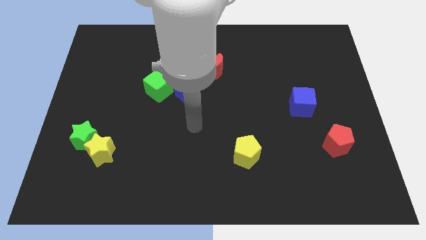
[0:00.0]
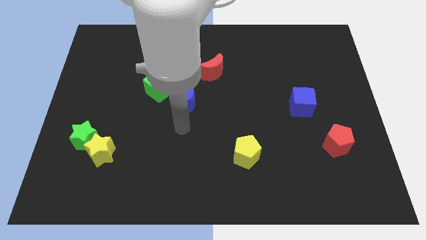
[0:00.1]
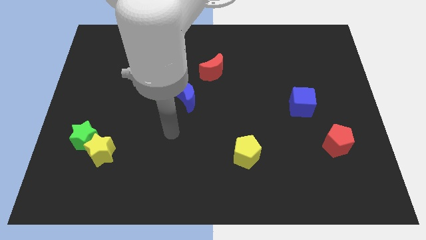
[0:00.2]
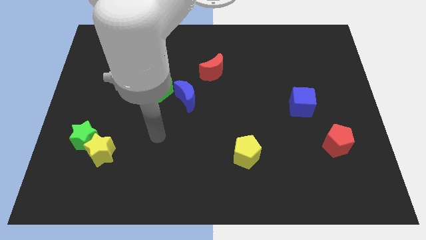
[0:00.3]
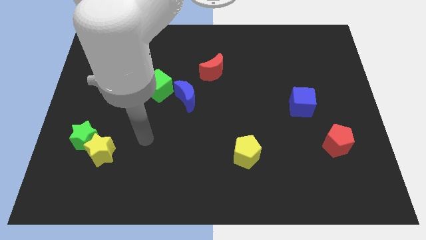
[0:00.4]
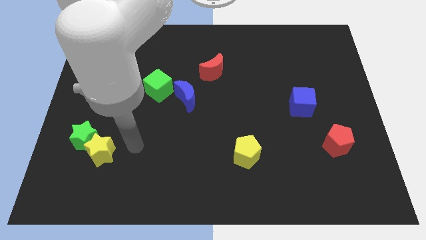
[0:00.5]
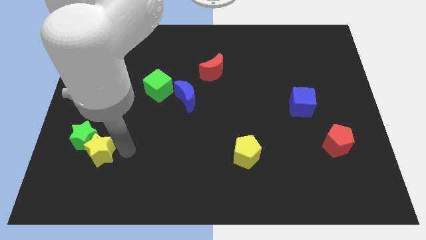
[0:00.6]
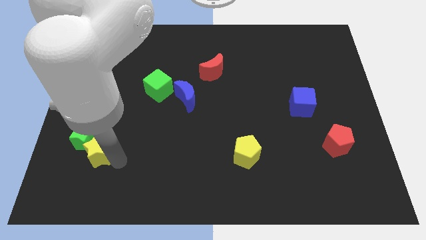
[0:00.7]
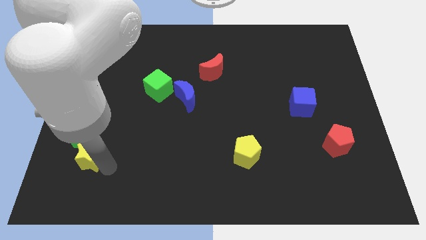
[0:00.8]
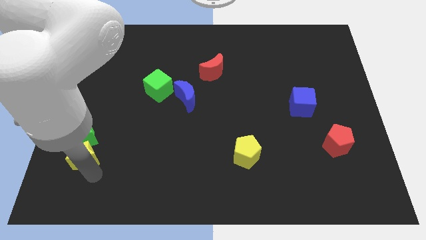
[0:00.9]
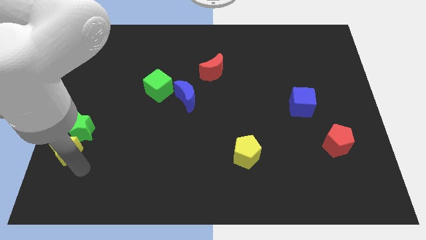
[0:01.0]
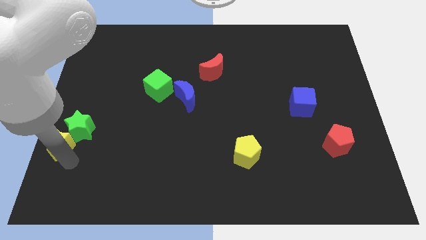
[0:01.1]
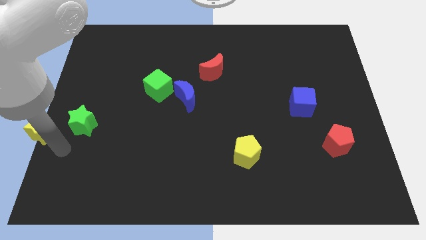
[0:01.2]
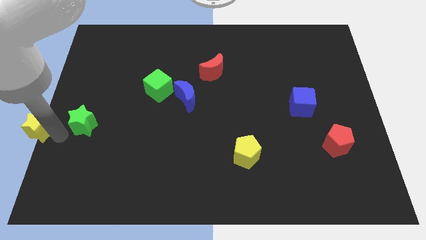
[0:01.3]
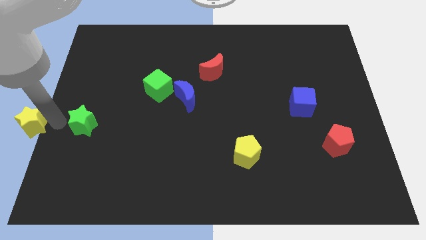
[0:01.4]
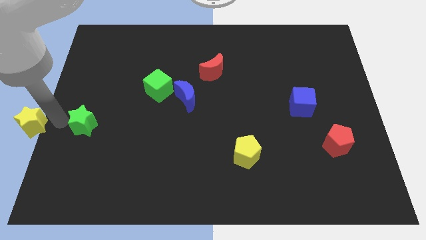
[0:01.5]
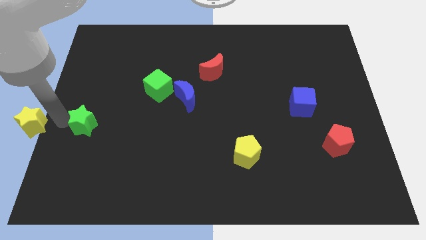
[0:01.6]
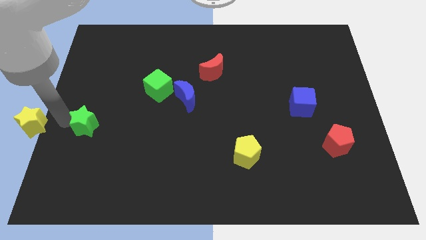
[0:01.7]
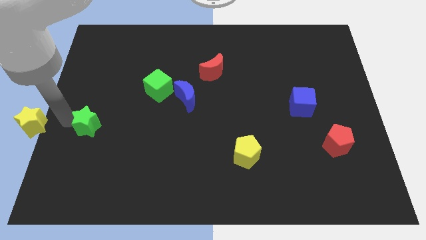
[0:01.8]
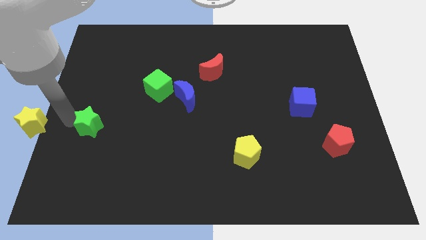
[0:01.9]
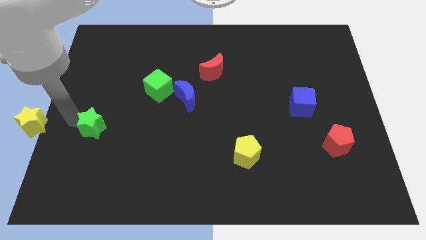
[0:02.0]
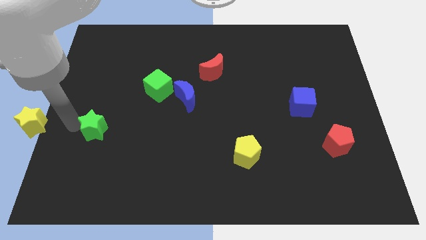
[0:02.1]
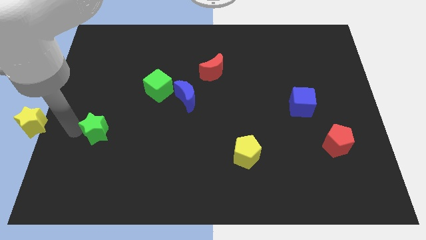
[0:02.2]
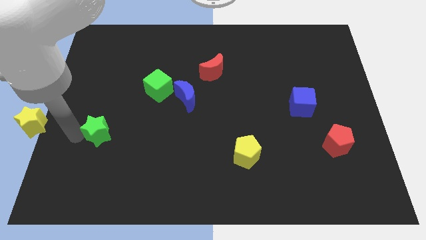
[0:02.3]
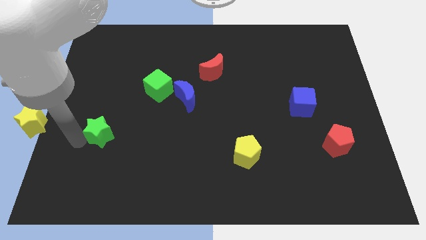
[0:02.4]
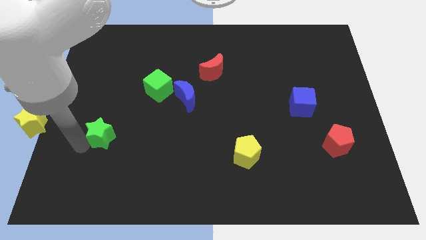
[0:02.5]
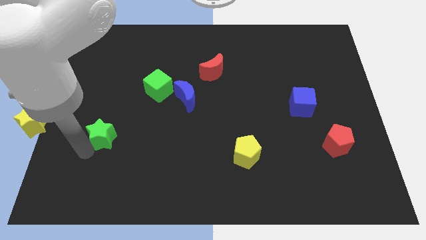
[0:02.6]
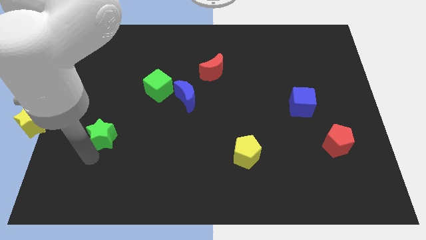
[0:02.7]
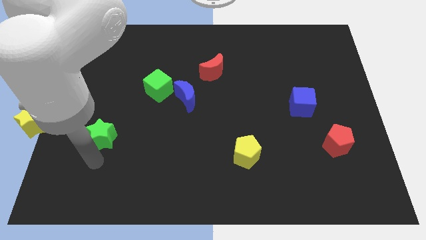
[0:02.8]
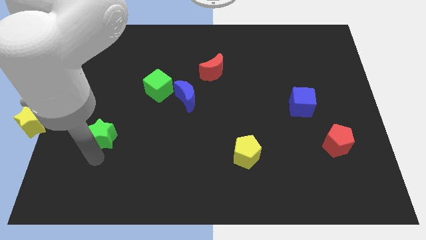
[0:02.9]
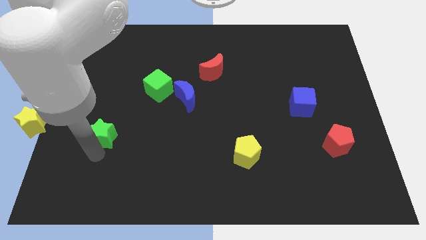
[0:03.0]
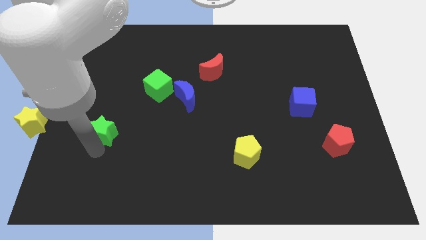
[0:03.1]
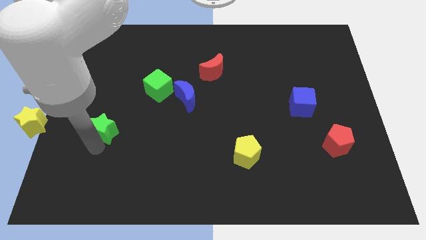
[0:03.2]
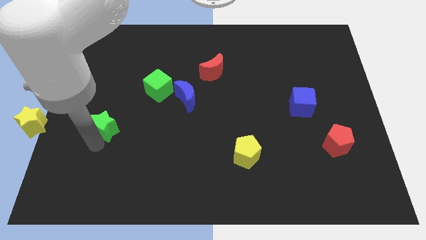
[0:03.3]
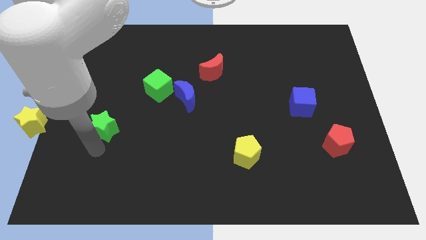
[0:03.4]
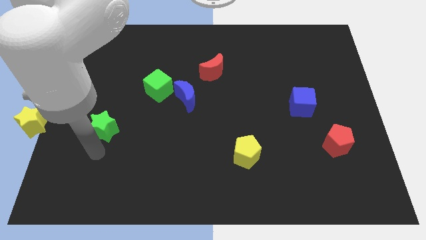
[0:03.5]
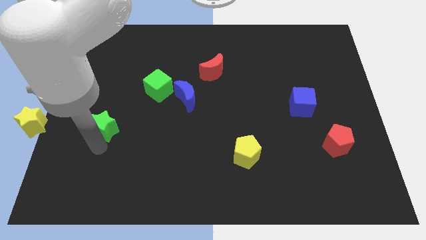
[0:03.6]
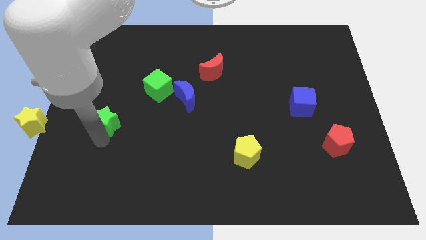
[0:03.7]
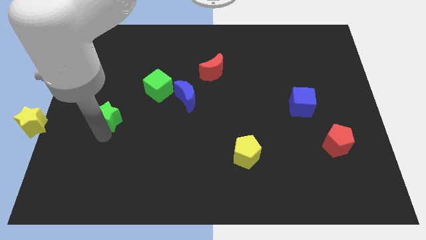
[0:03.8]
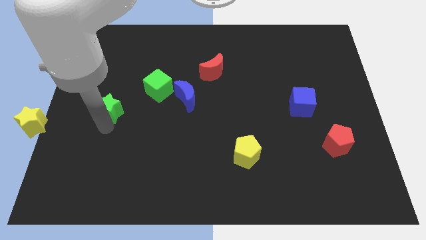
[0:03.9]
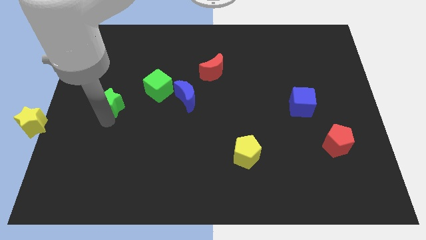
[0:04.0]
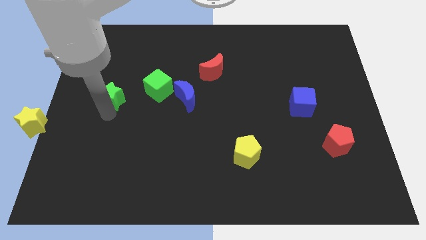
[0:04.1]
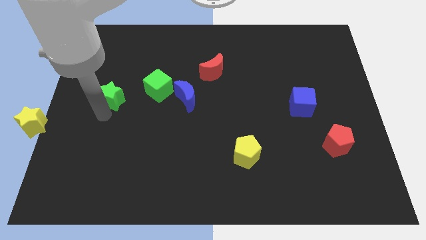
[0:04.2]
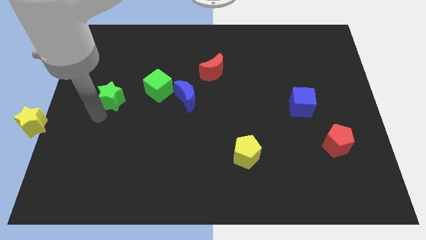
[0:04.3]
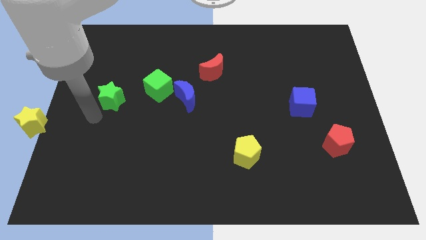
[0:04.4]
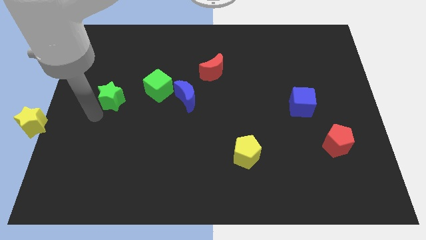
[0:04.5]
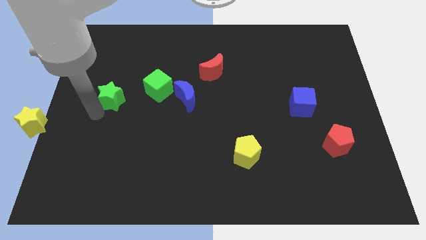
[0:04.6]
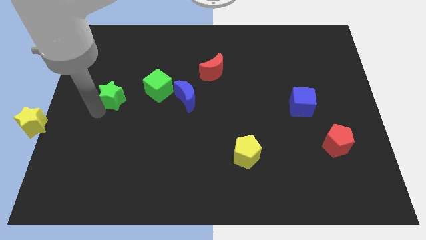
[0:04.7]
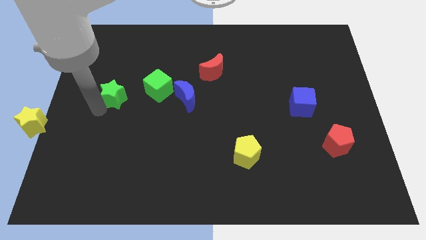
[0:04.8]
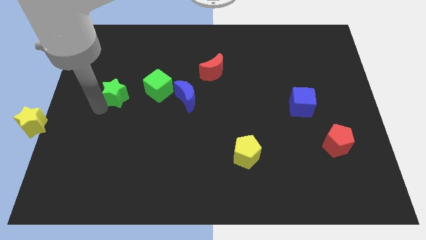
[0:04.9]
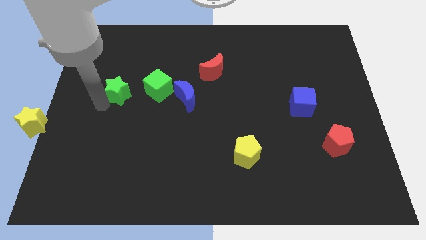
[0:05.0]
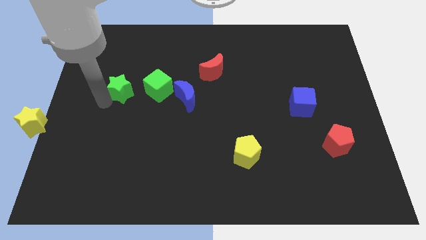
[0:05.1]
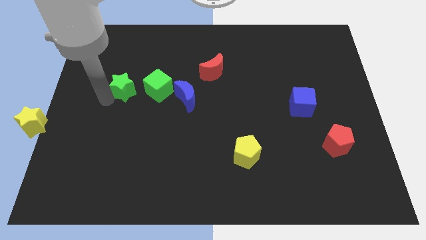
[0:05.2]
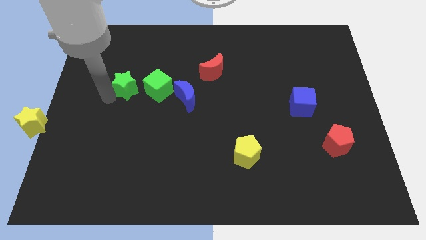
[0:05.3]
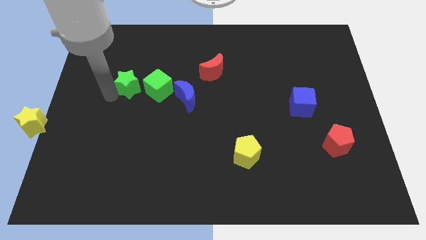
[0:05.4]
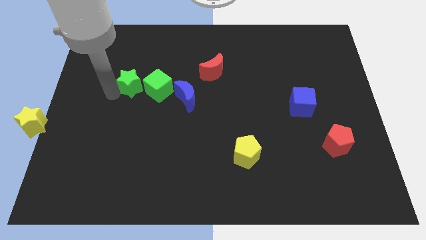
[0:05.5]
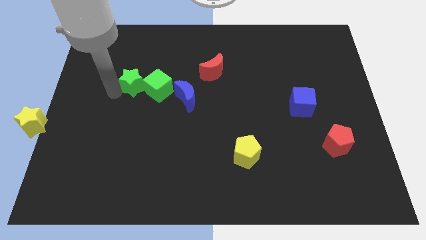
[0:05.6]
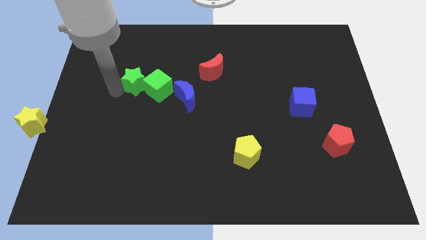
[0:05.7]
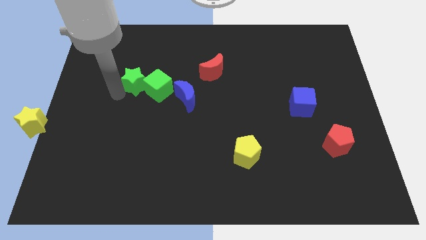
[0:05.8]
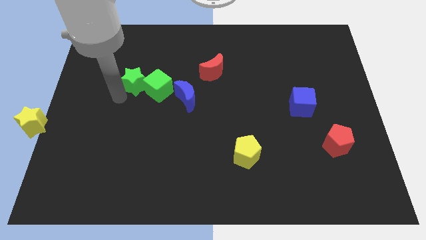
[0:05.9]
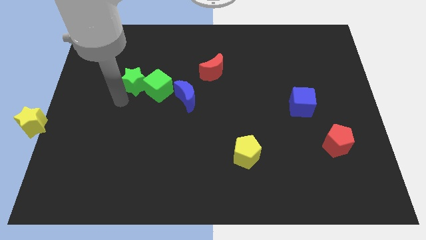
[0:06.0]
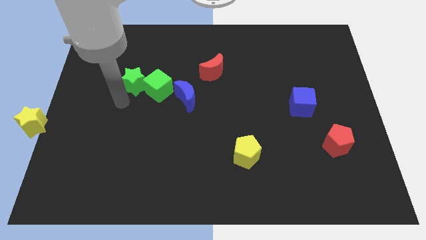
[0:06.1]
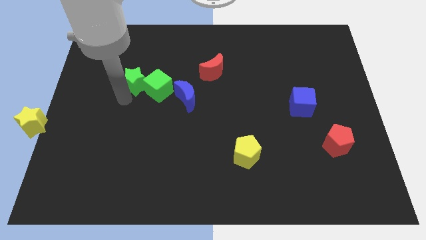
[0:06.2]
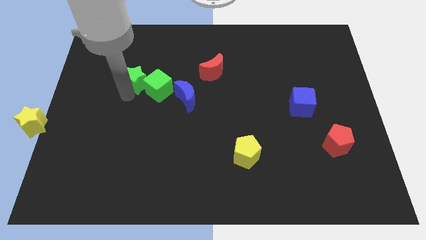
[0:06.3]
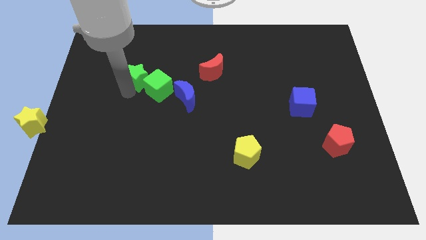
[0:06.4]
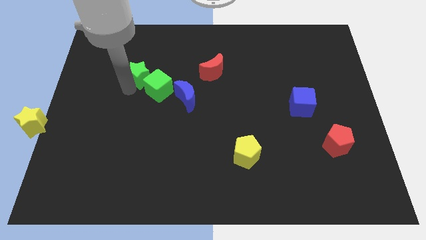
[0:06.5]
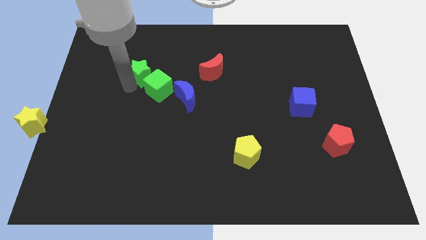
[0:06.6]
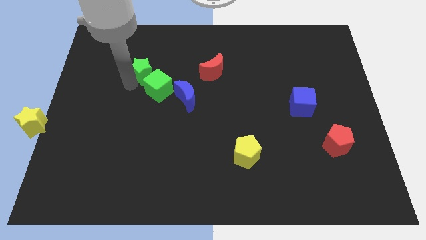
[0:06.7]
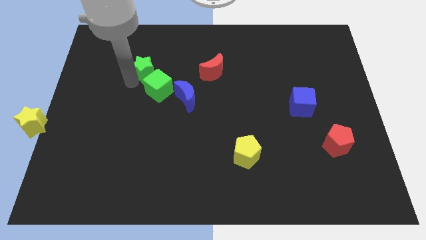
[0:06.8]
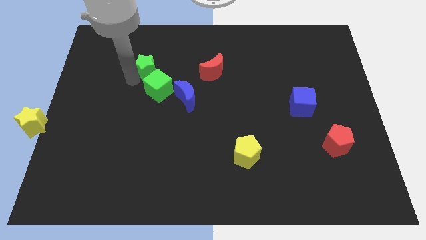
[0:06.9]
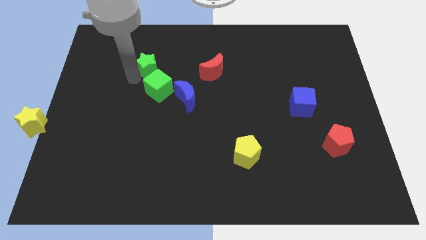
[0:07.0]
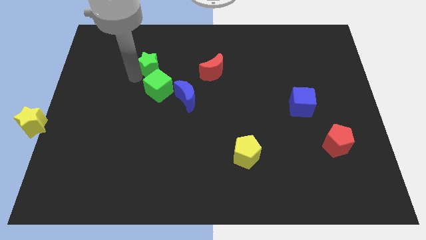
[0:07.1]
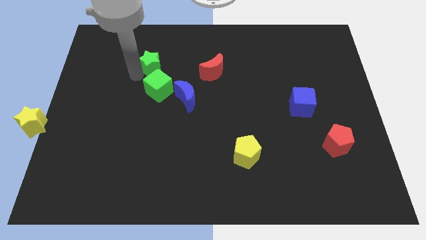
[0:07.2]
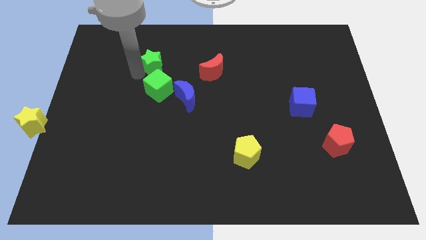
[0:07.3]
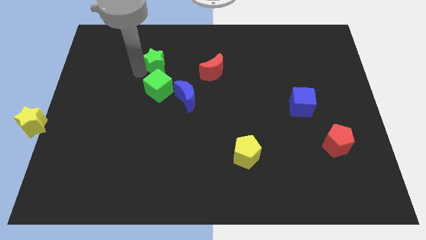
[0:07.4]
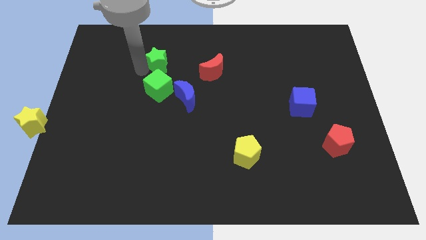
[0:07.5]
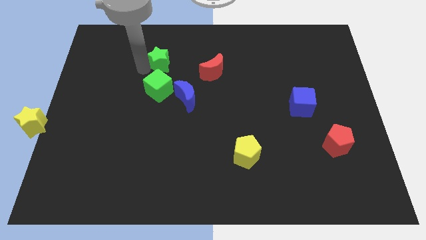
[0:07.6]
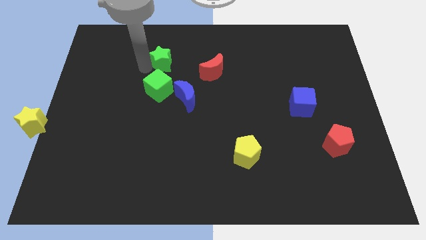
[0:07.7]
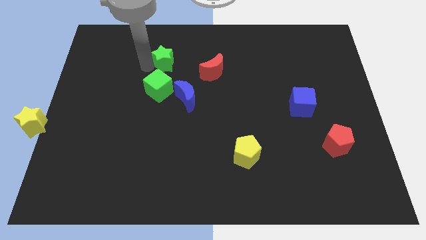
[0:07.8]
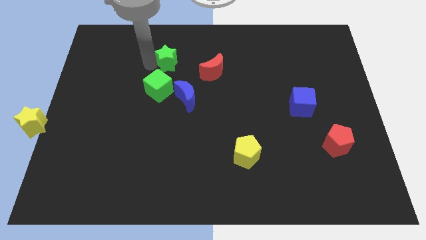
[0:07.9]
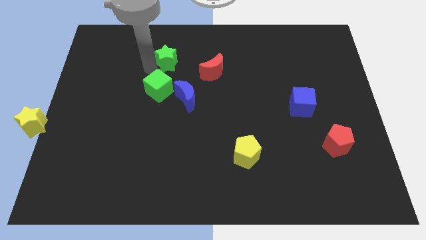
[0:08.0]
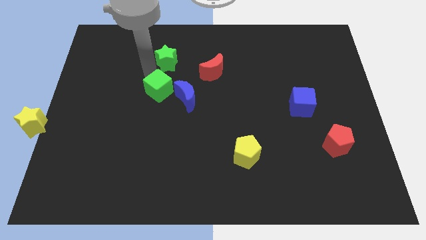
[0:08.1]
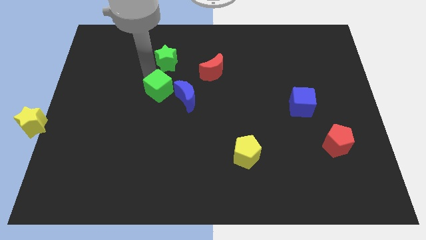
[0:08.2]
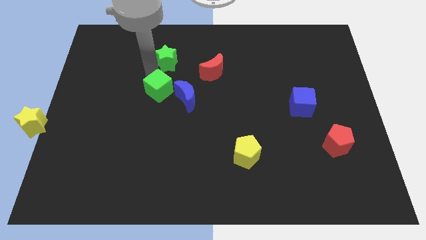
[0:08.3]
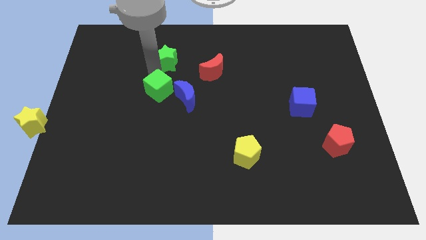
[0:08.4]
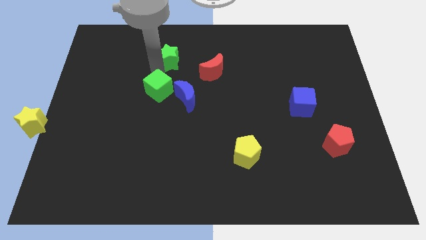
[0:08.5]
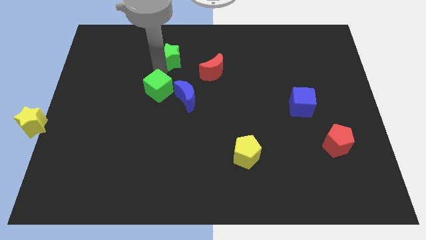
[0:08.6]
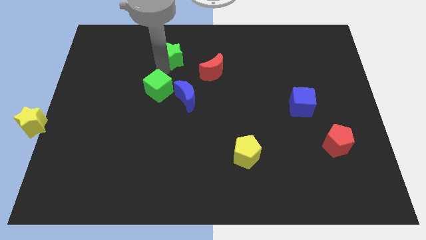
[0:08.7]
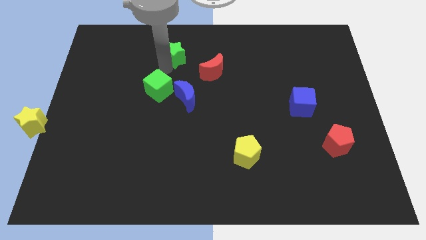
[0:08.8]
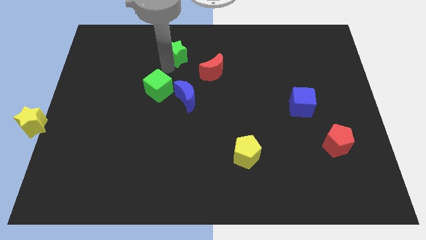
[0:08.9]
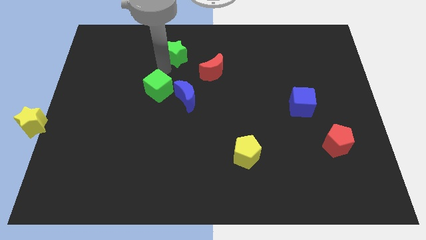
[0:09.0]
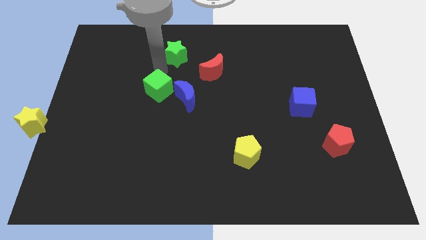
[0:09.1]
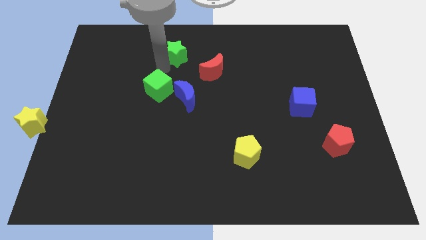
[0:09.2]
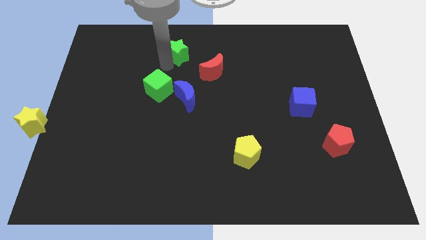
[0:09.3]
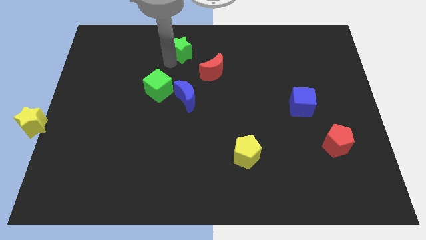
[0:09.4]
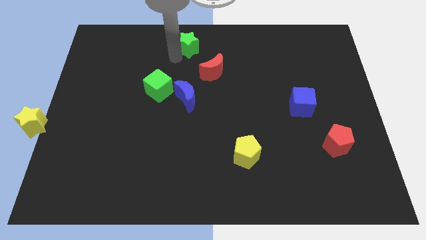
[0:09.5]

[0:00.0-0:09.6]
move the green star to the top
